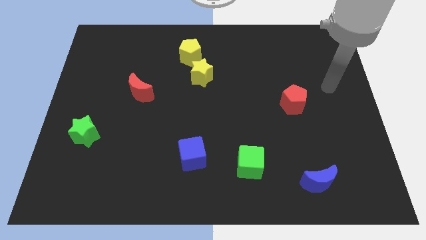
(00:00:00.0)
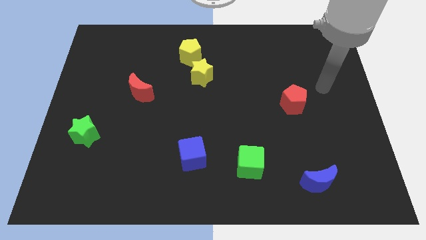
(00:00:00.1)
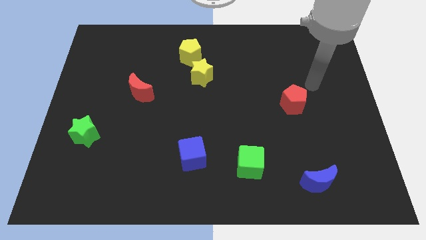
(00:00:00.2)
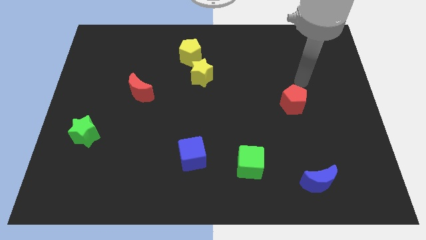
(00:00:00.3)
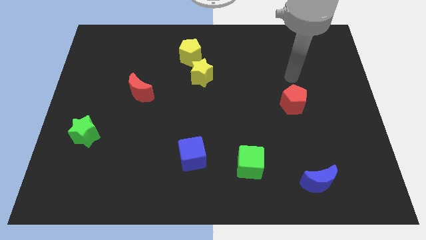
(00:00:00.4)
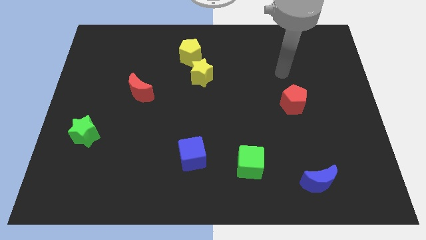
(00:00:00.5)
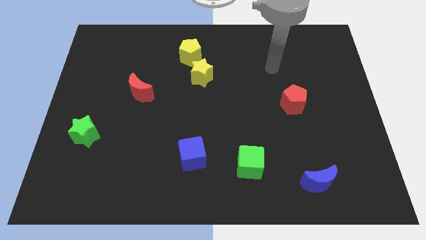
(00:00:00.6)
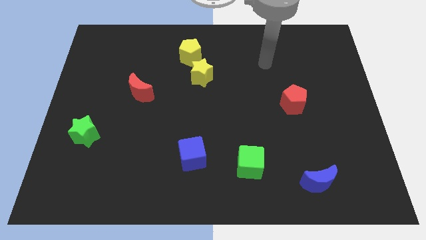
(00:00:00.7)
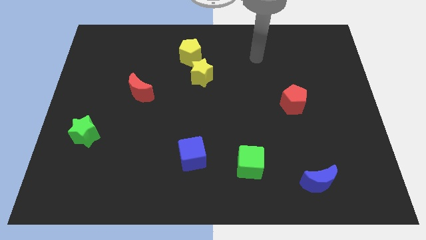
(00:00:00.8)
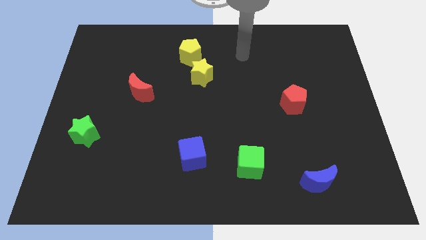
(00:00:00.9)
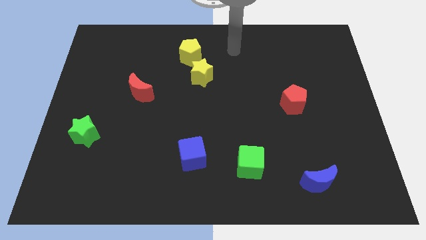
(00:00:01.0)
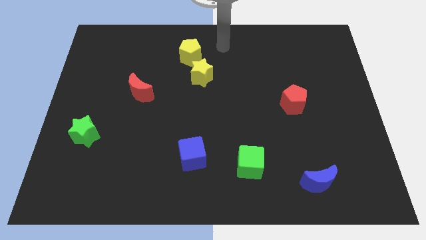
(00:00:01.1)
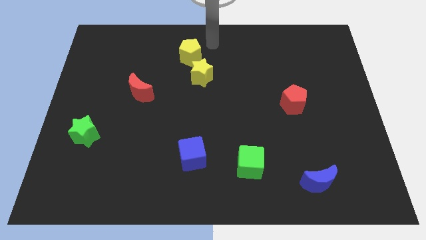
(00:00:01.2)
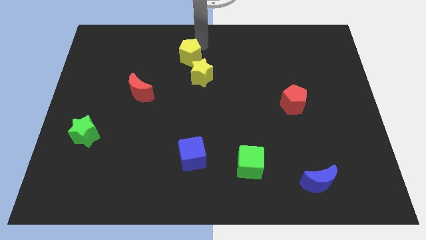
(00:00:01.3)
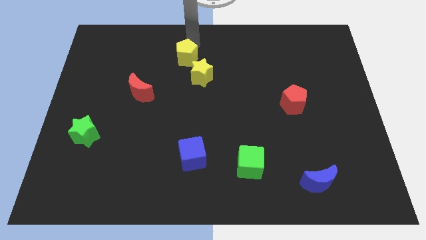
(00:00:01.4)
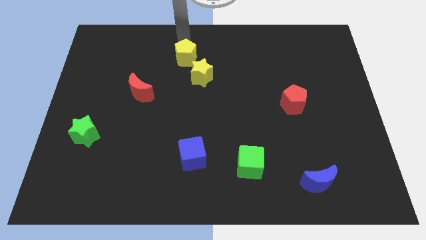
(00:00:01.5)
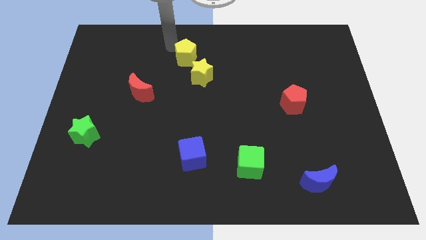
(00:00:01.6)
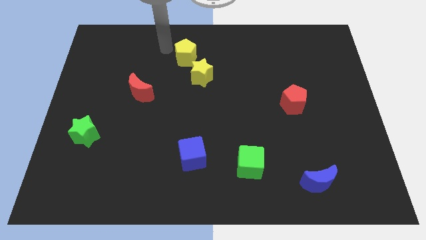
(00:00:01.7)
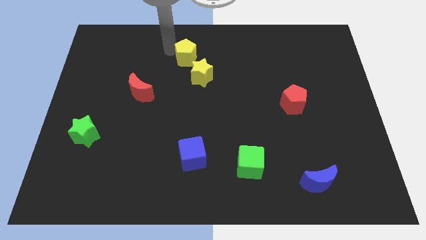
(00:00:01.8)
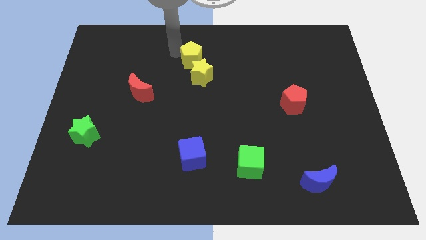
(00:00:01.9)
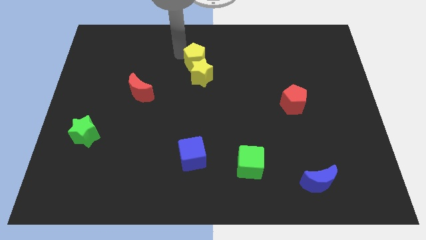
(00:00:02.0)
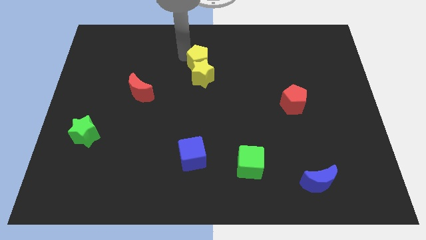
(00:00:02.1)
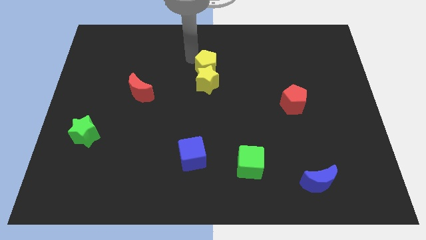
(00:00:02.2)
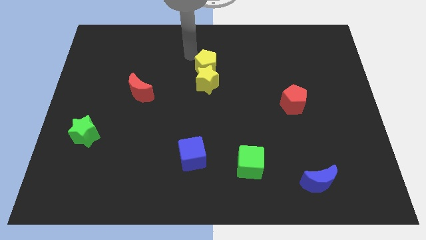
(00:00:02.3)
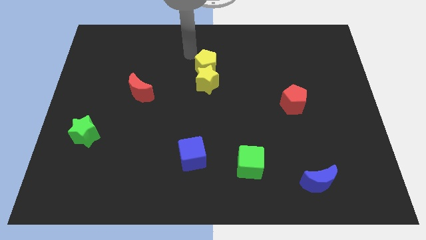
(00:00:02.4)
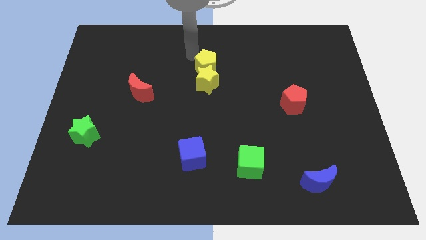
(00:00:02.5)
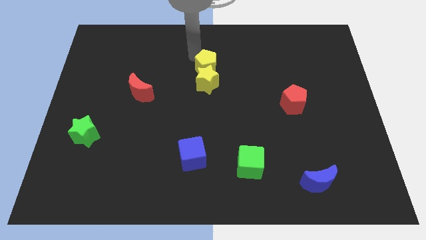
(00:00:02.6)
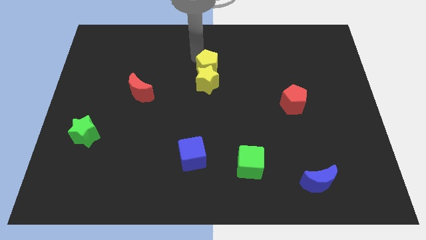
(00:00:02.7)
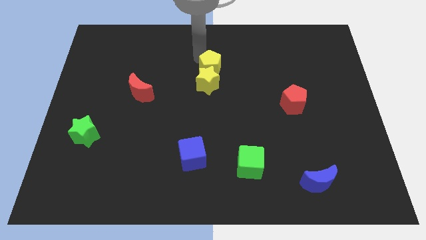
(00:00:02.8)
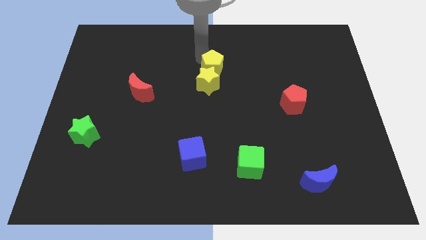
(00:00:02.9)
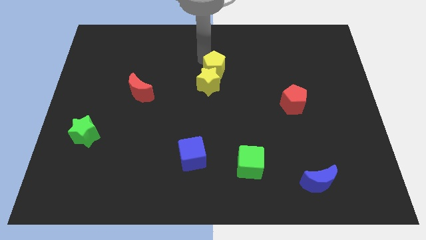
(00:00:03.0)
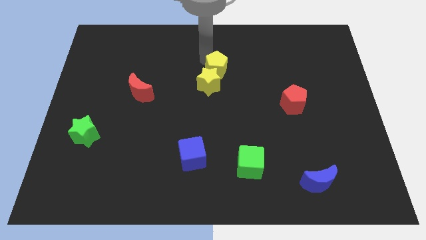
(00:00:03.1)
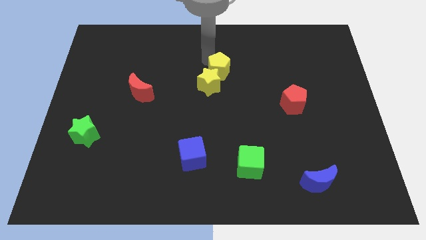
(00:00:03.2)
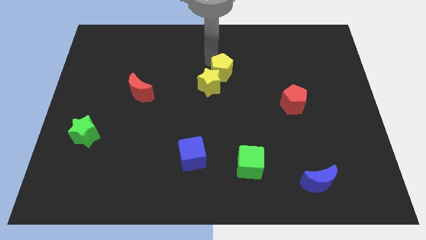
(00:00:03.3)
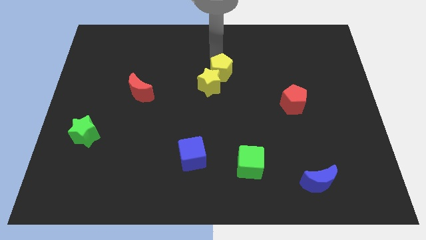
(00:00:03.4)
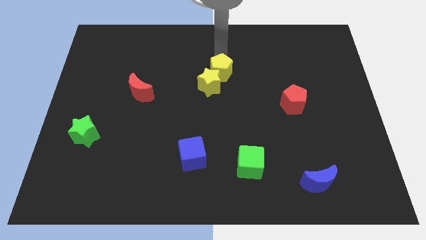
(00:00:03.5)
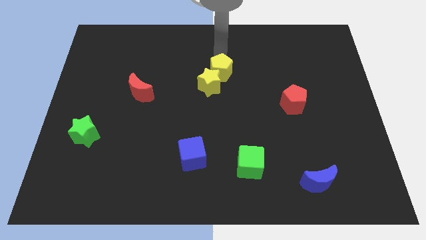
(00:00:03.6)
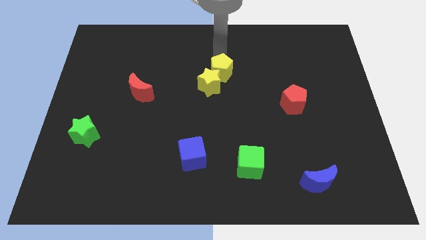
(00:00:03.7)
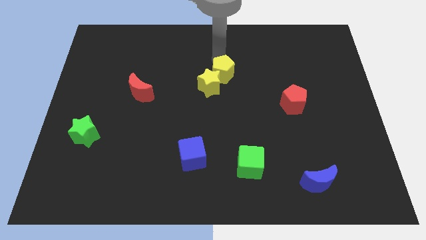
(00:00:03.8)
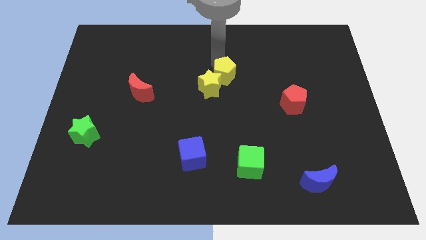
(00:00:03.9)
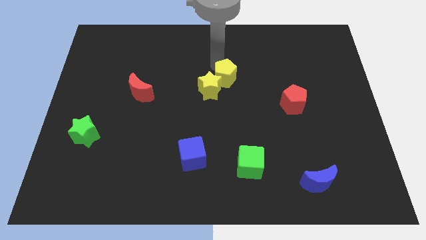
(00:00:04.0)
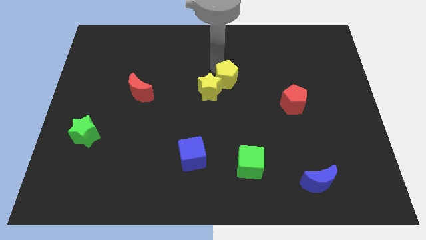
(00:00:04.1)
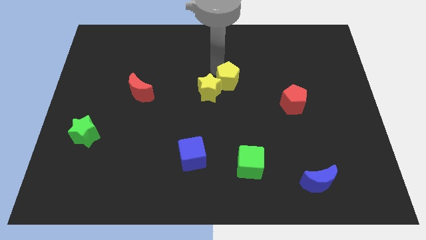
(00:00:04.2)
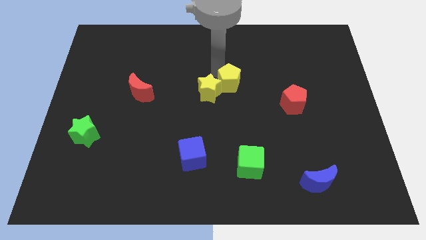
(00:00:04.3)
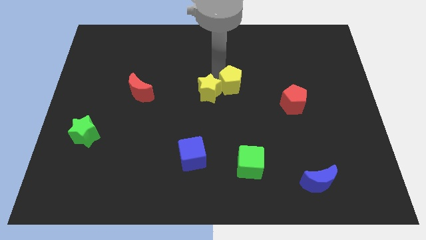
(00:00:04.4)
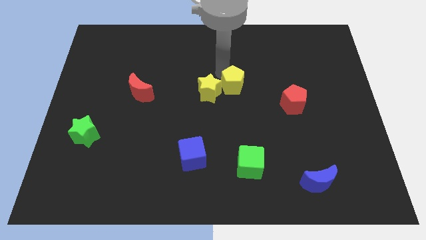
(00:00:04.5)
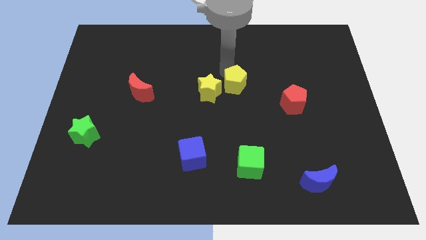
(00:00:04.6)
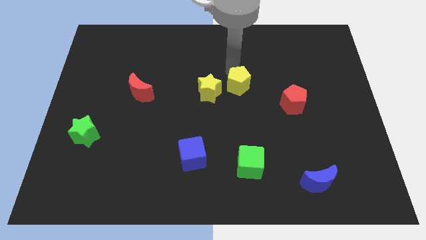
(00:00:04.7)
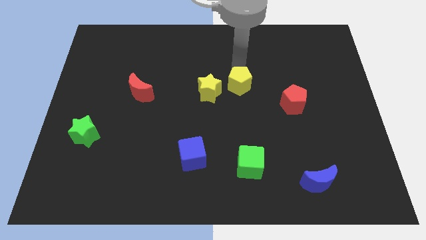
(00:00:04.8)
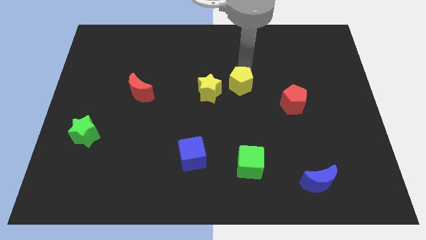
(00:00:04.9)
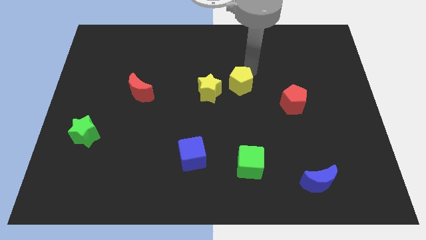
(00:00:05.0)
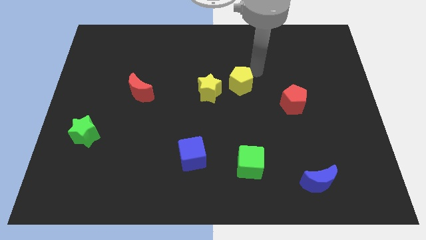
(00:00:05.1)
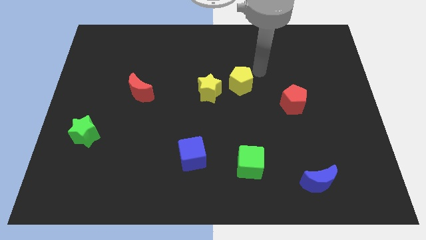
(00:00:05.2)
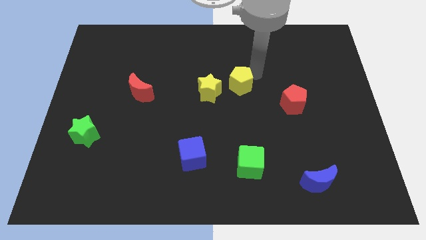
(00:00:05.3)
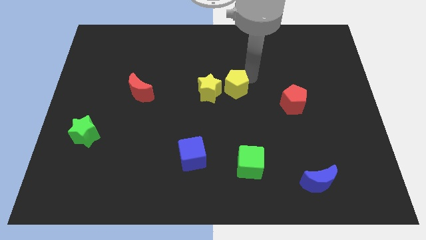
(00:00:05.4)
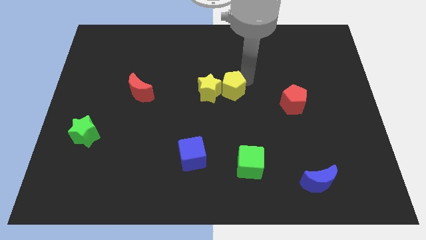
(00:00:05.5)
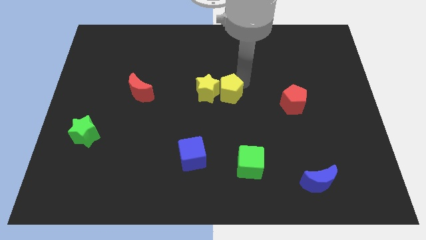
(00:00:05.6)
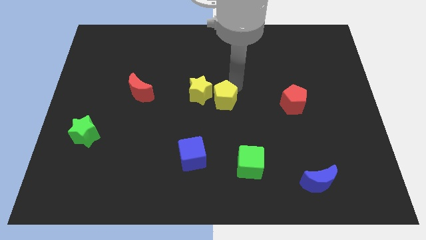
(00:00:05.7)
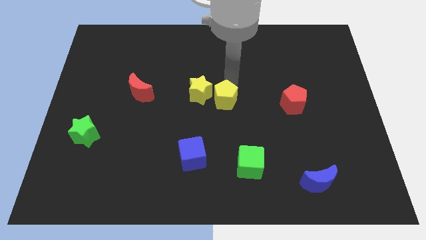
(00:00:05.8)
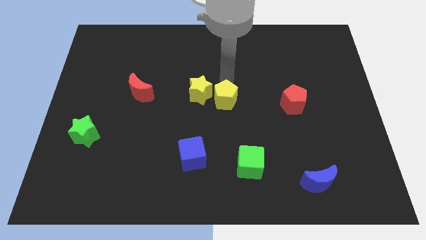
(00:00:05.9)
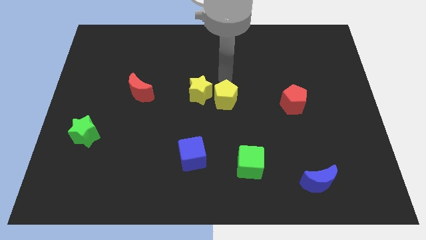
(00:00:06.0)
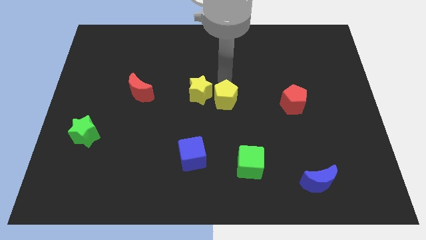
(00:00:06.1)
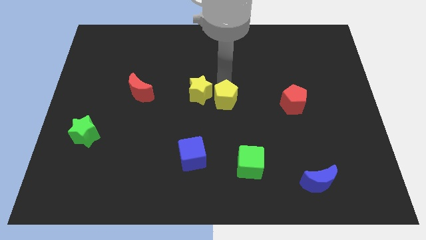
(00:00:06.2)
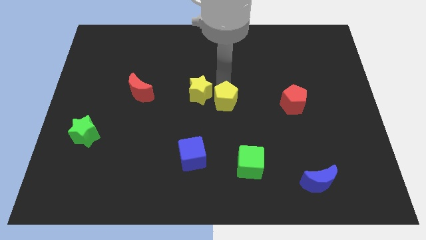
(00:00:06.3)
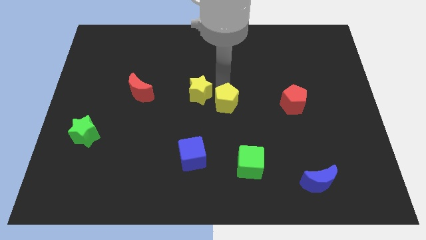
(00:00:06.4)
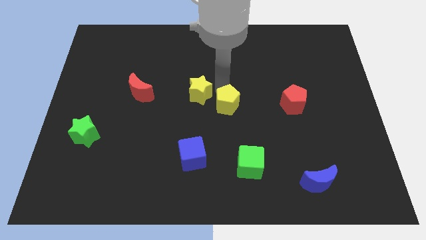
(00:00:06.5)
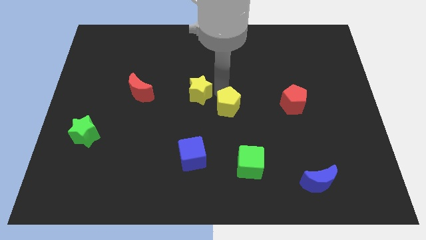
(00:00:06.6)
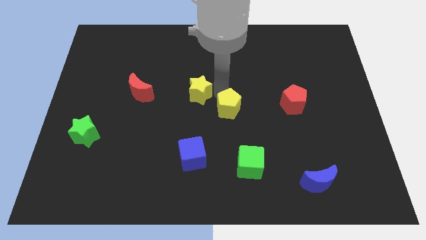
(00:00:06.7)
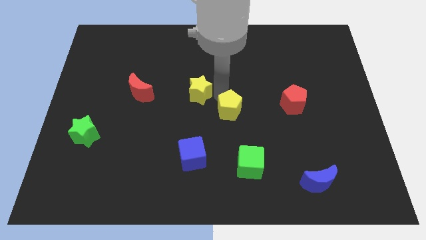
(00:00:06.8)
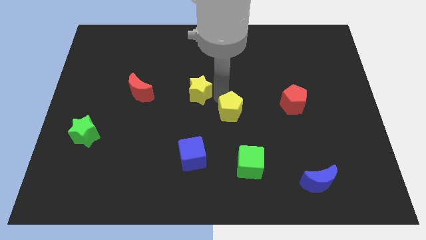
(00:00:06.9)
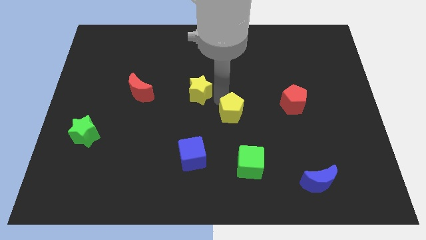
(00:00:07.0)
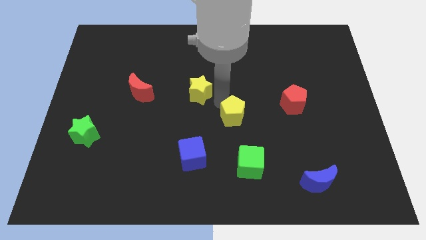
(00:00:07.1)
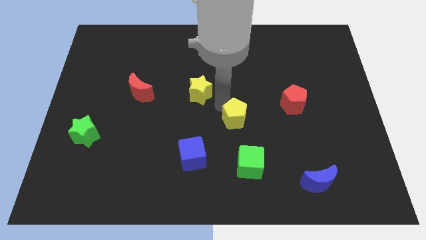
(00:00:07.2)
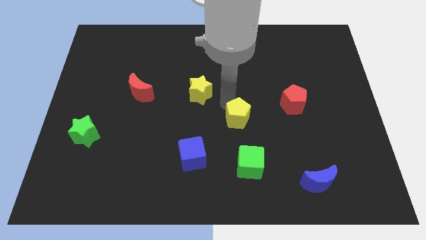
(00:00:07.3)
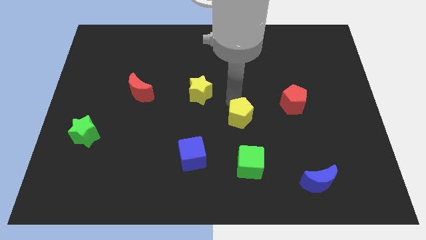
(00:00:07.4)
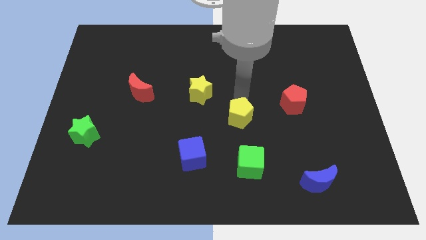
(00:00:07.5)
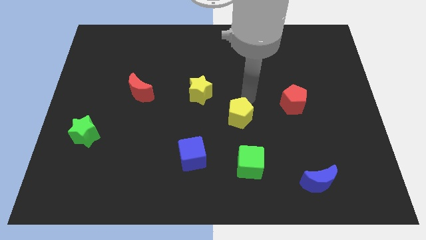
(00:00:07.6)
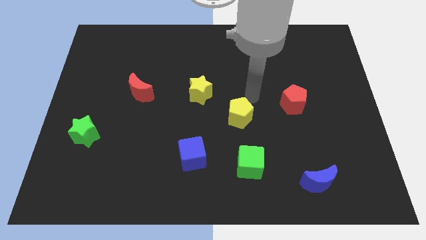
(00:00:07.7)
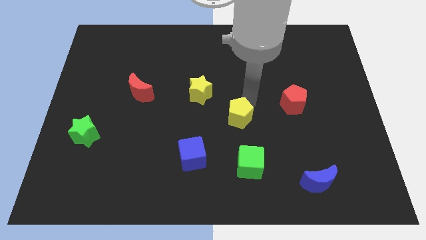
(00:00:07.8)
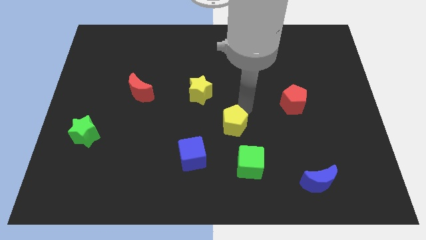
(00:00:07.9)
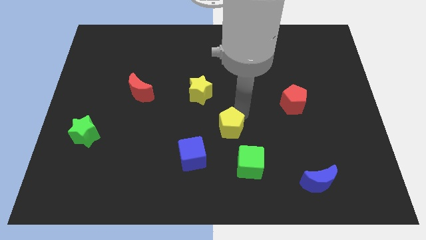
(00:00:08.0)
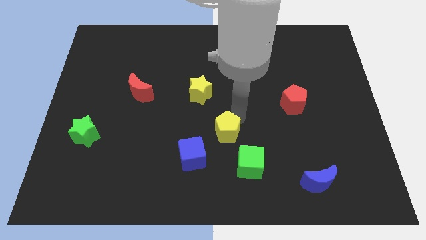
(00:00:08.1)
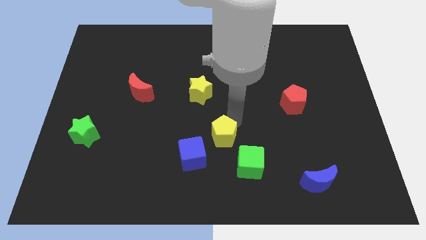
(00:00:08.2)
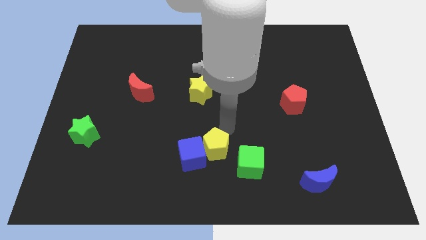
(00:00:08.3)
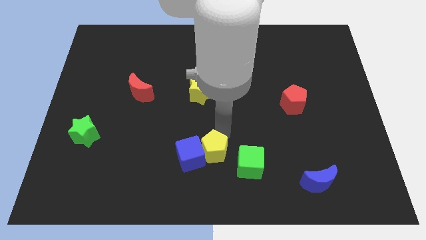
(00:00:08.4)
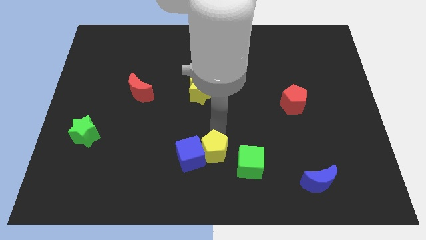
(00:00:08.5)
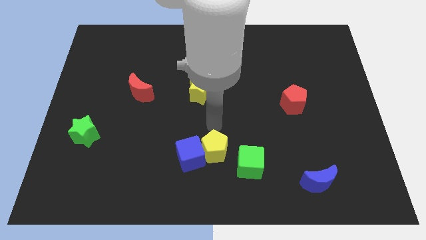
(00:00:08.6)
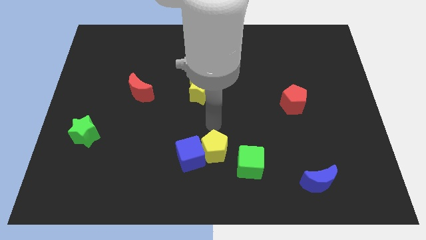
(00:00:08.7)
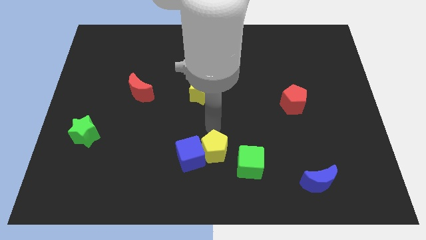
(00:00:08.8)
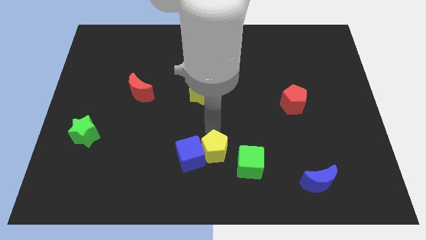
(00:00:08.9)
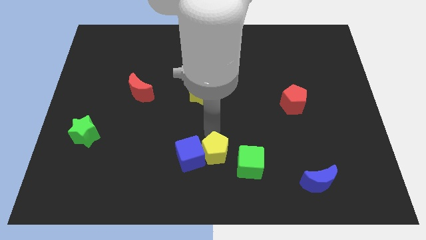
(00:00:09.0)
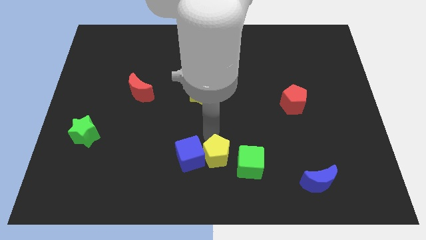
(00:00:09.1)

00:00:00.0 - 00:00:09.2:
move the yellow pentagon to the bottom side
